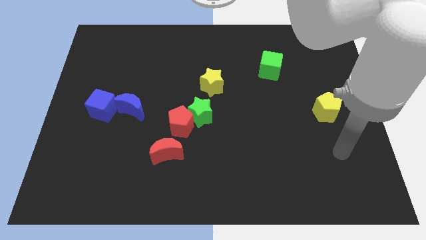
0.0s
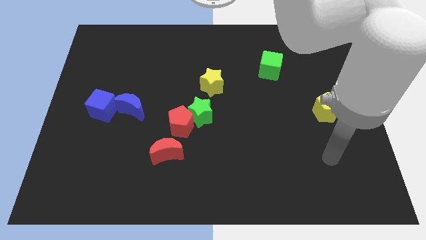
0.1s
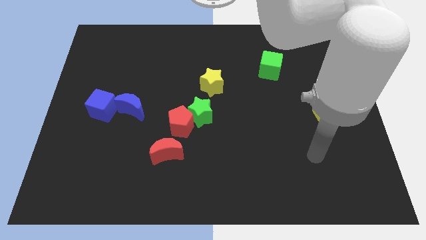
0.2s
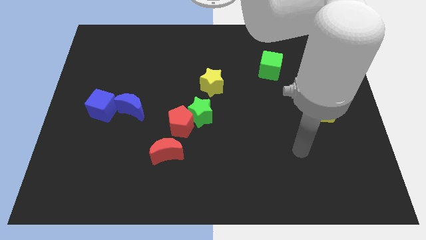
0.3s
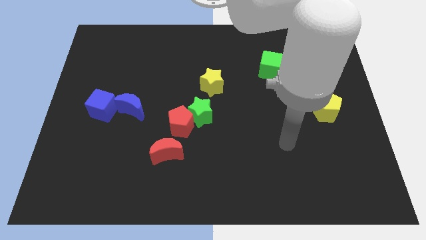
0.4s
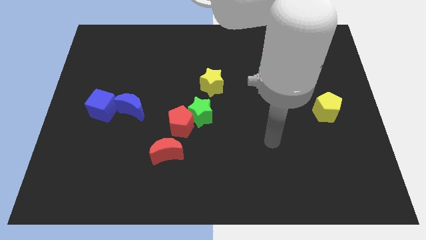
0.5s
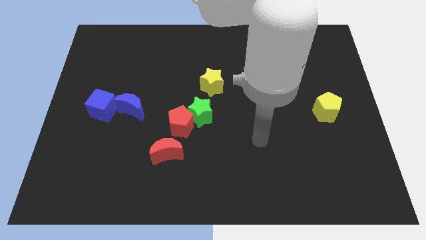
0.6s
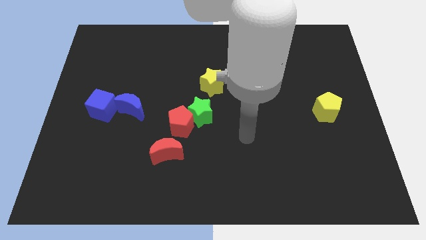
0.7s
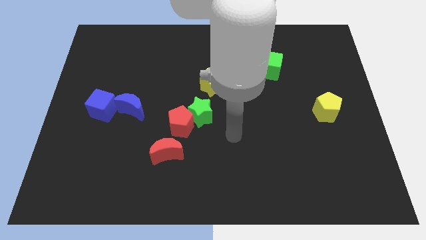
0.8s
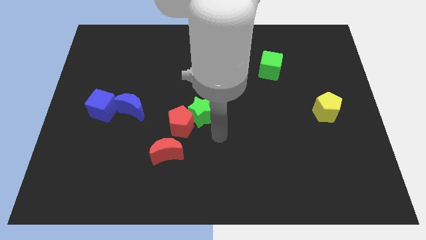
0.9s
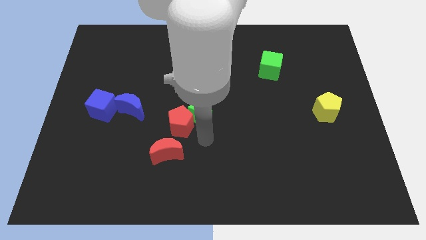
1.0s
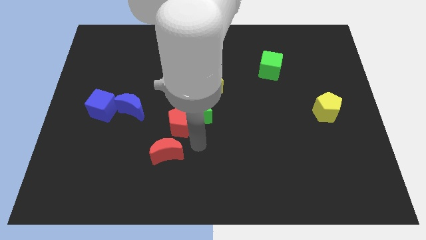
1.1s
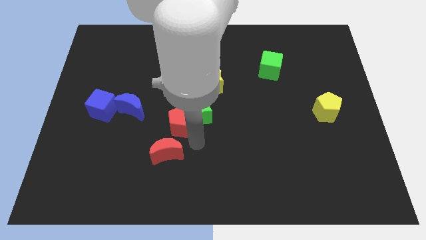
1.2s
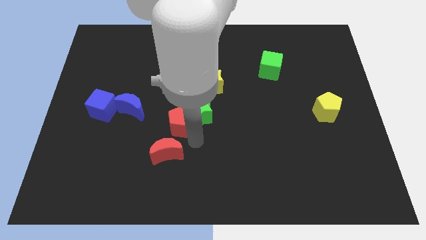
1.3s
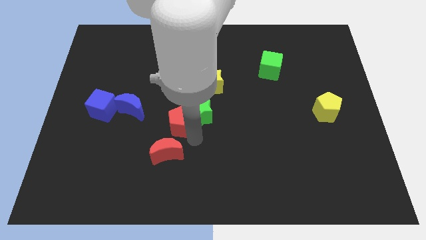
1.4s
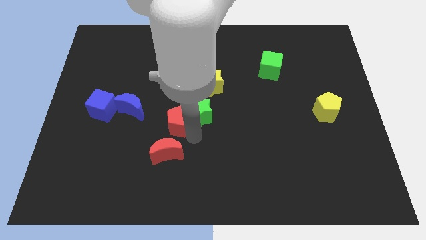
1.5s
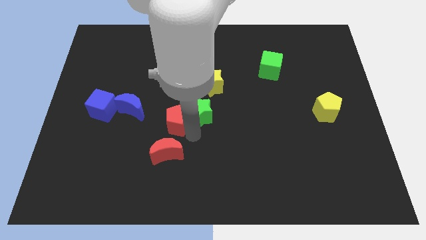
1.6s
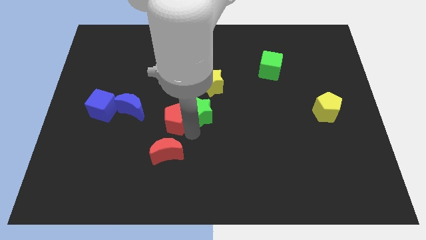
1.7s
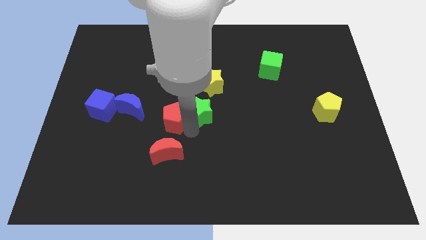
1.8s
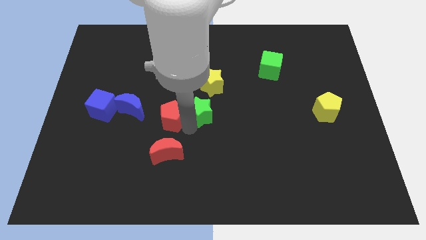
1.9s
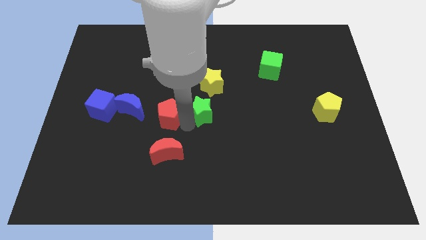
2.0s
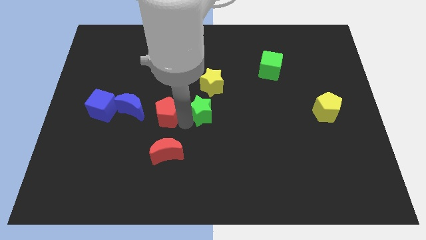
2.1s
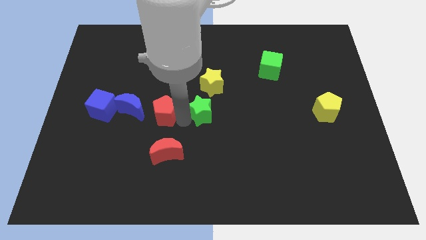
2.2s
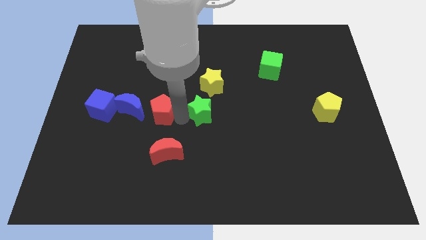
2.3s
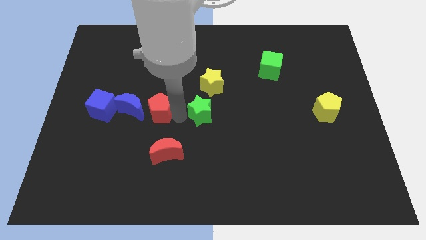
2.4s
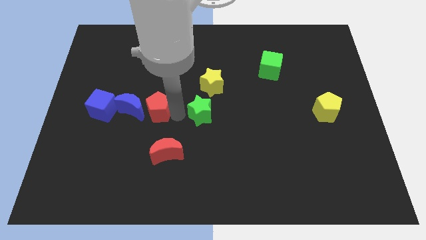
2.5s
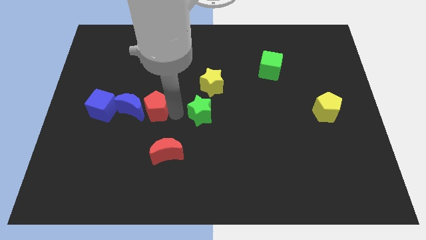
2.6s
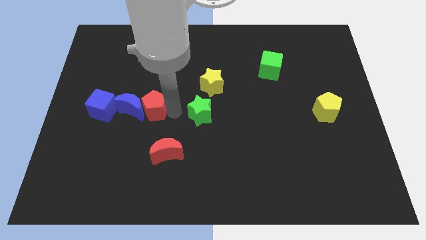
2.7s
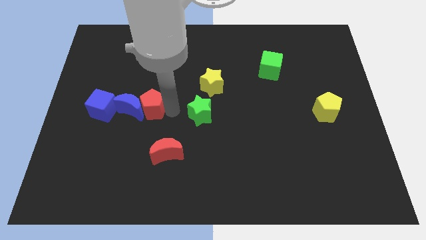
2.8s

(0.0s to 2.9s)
move the red pentagon away from the green star and red moon

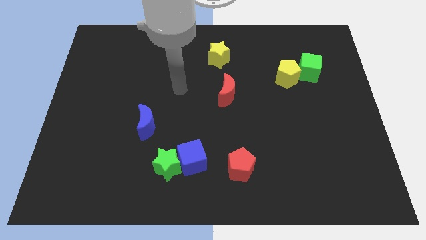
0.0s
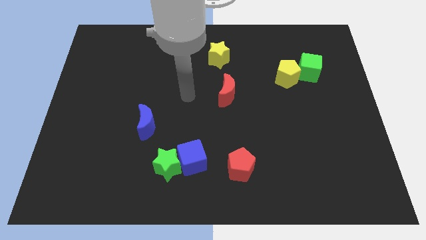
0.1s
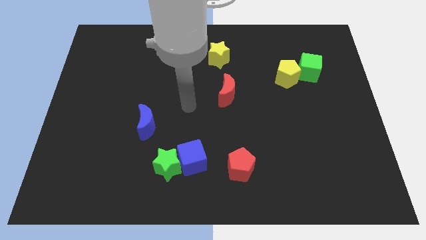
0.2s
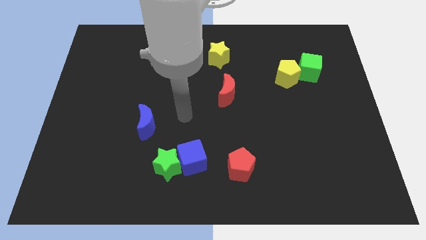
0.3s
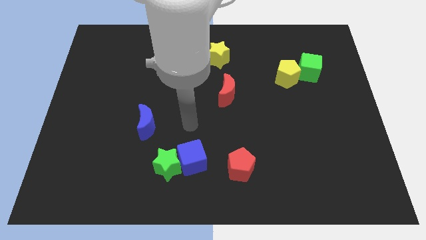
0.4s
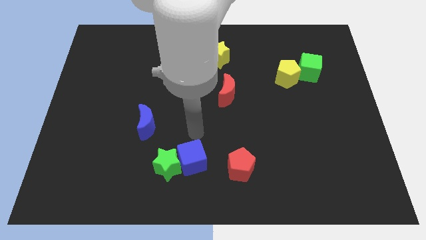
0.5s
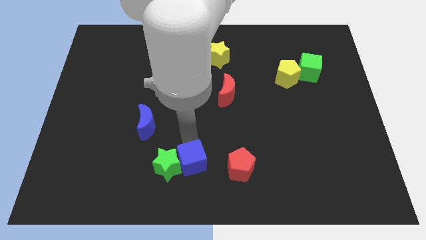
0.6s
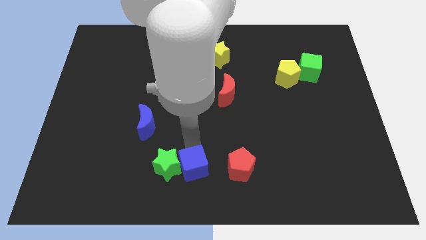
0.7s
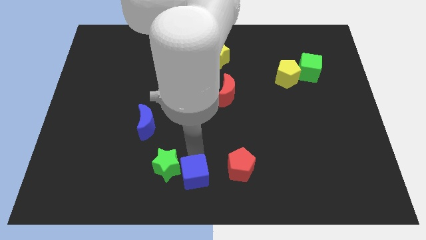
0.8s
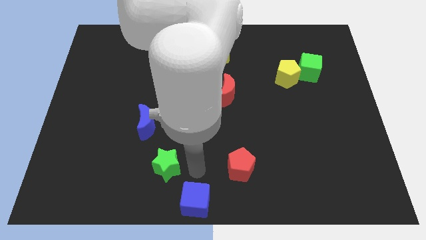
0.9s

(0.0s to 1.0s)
move the green star away from the blue cube

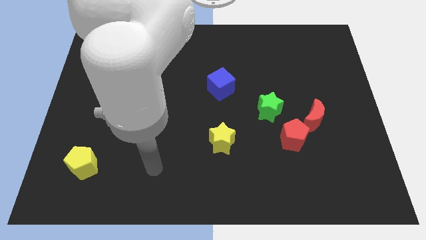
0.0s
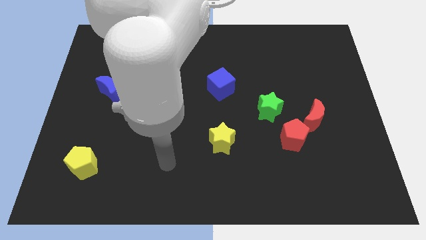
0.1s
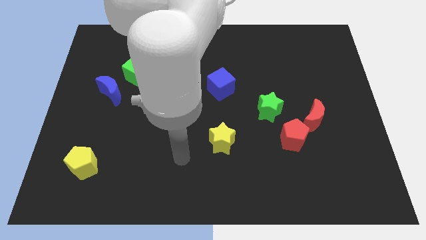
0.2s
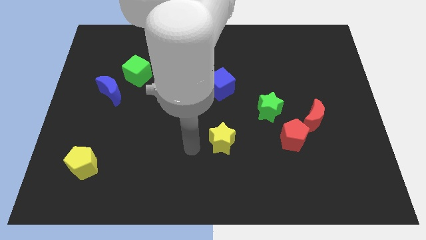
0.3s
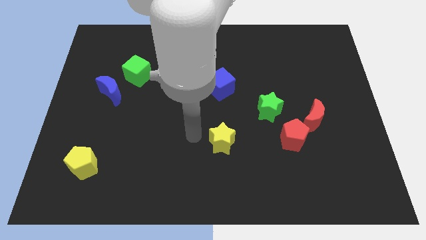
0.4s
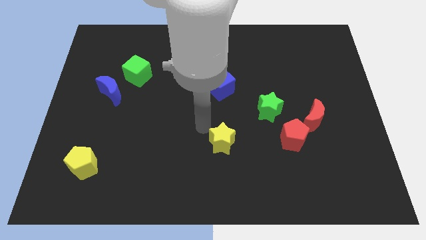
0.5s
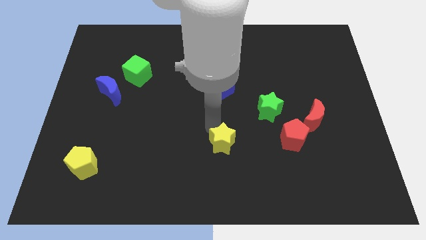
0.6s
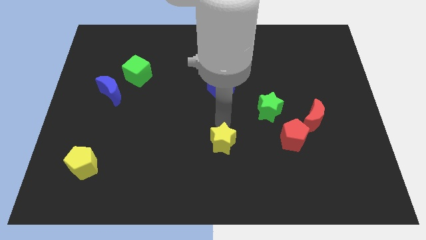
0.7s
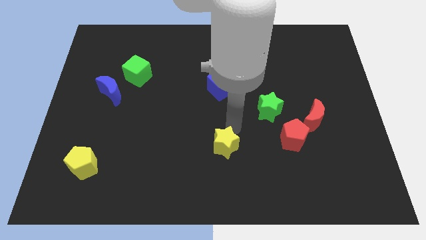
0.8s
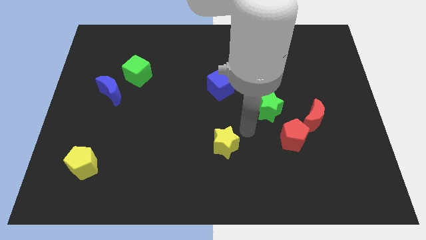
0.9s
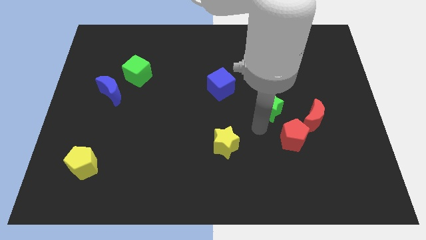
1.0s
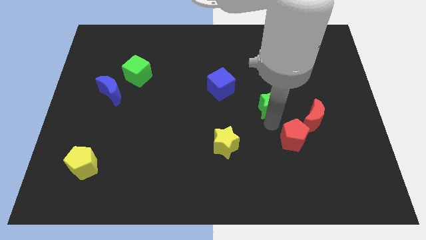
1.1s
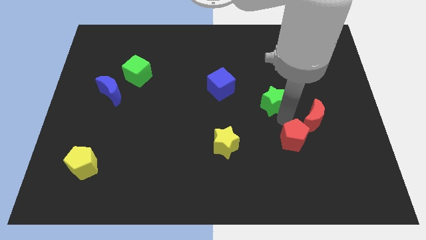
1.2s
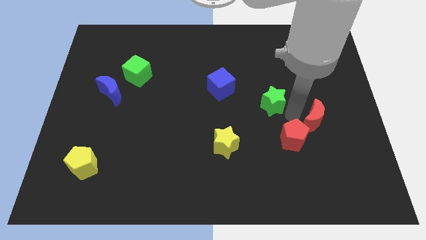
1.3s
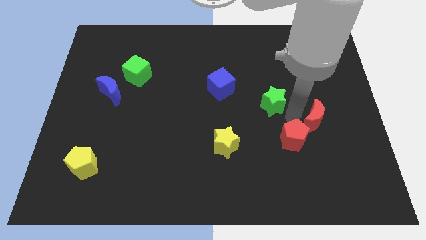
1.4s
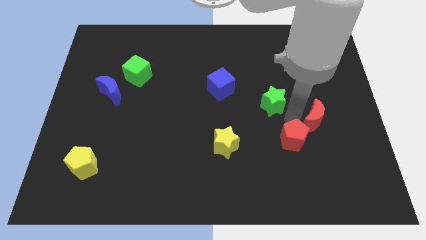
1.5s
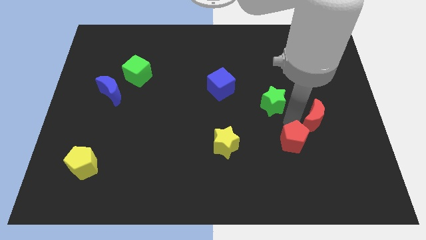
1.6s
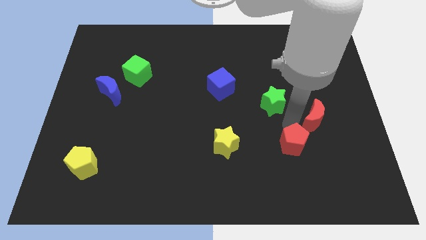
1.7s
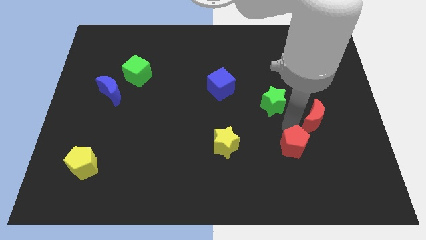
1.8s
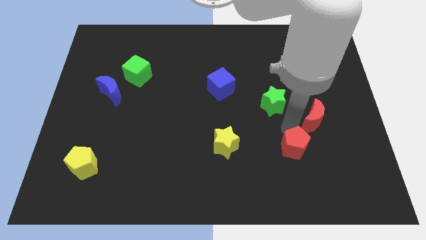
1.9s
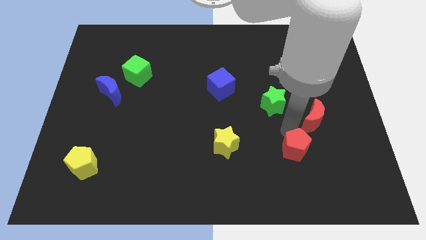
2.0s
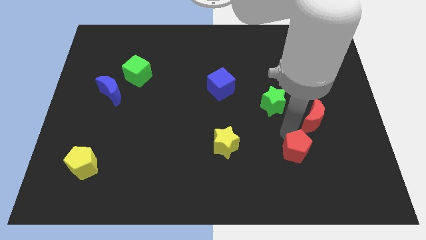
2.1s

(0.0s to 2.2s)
move the red pentagon away from the red moon and green star

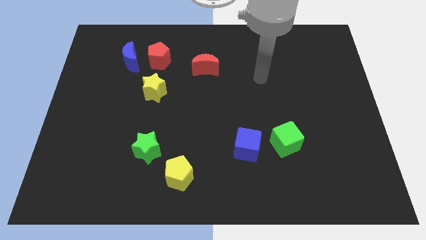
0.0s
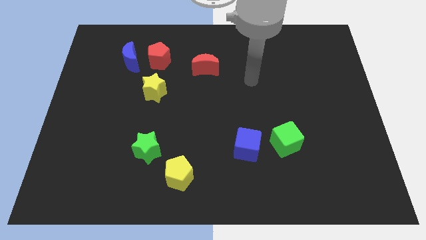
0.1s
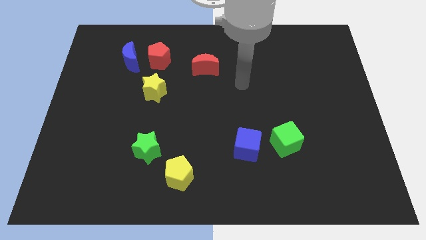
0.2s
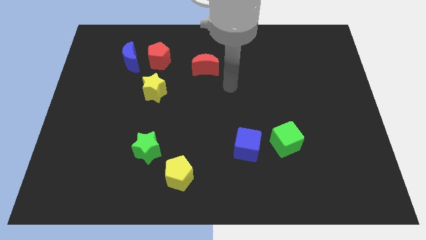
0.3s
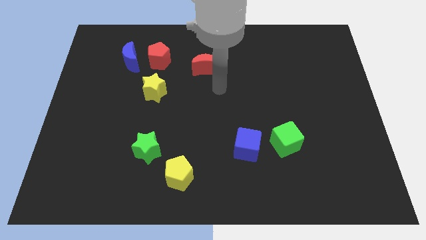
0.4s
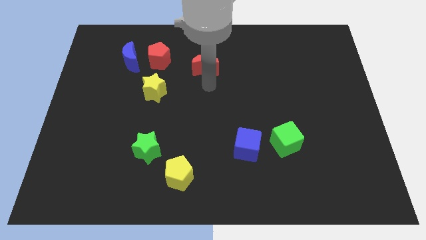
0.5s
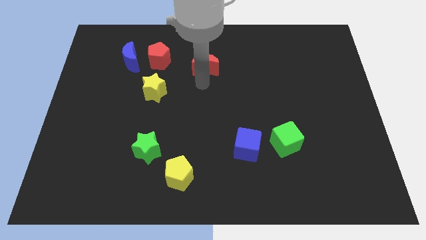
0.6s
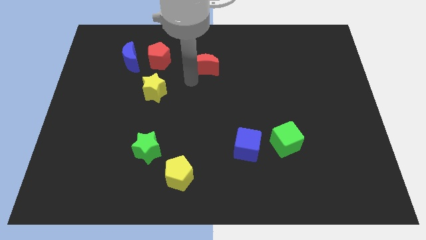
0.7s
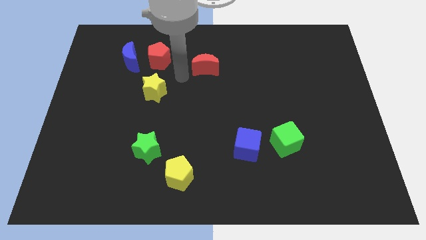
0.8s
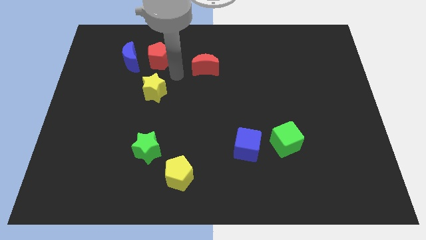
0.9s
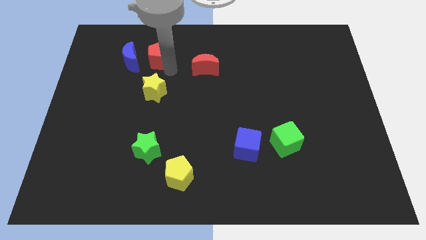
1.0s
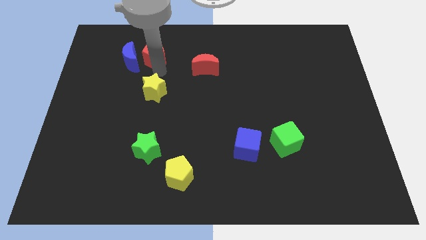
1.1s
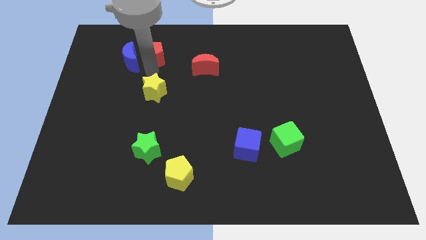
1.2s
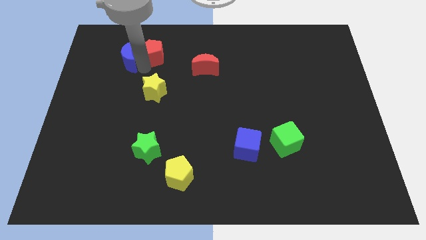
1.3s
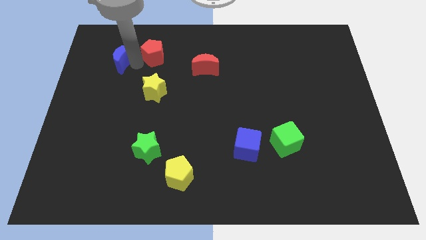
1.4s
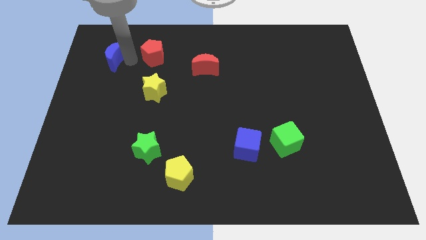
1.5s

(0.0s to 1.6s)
separate the red pentagon from the blue moon

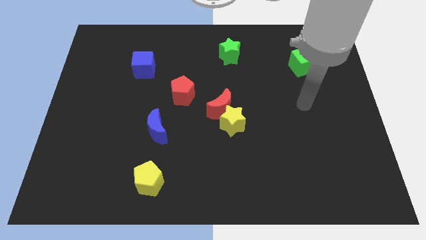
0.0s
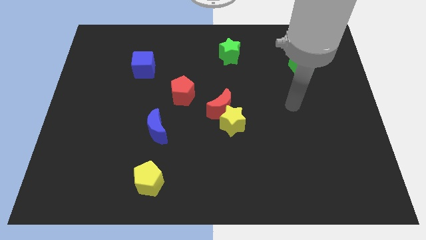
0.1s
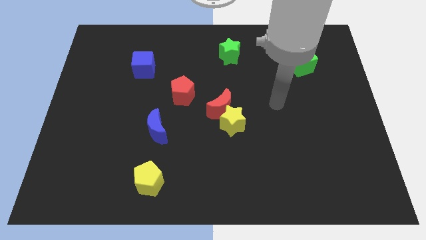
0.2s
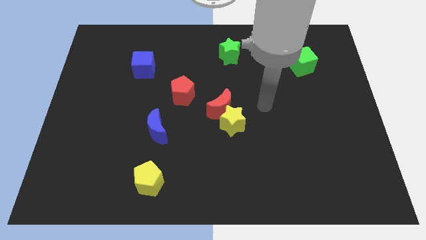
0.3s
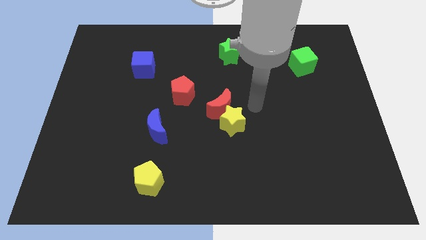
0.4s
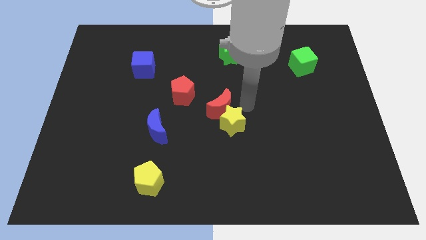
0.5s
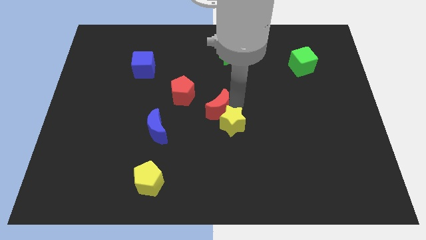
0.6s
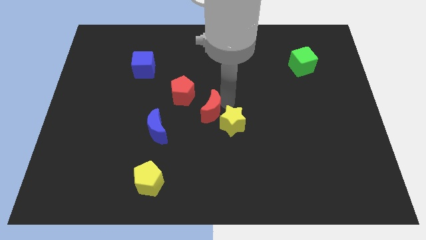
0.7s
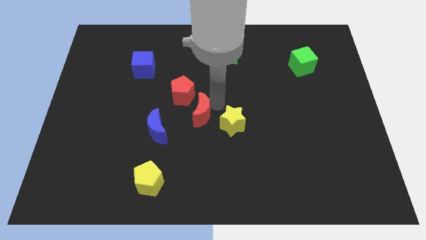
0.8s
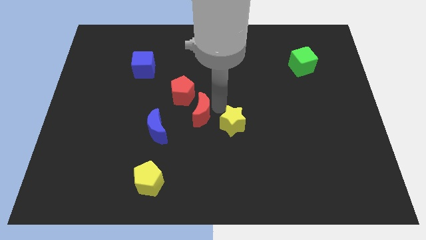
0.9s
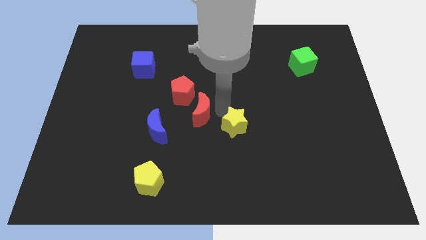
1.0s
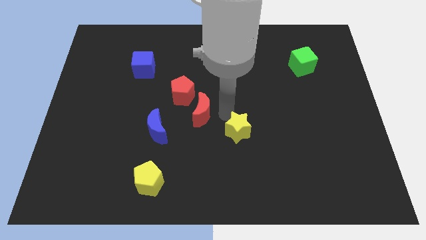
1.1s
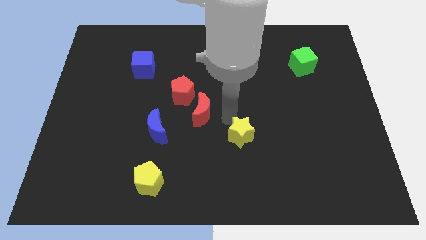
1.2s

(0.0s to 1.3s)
pull the yellow star apart from the red moon
